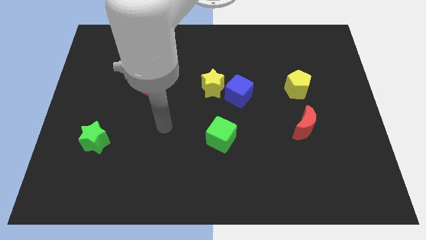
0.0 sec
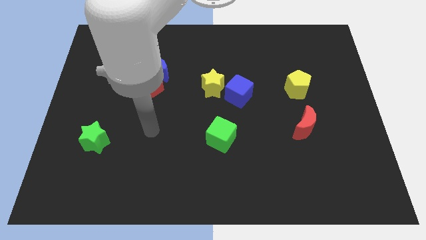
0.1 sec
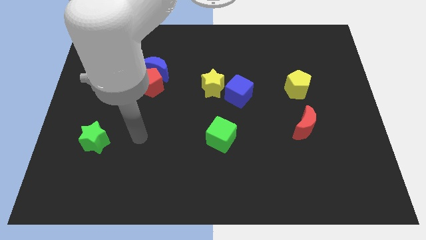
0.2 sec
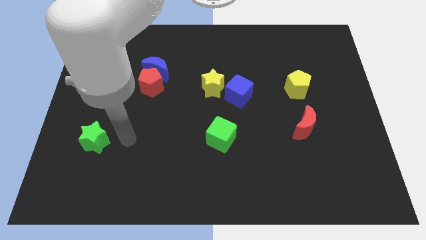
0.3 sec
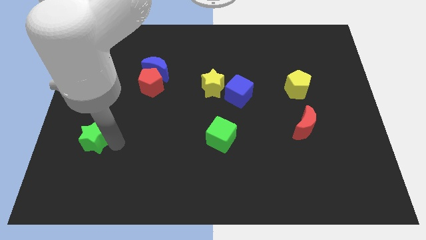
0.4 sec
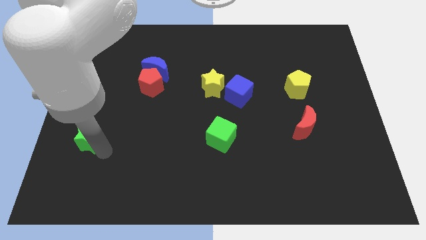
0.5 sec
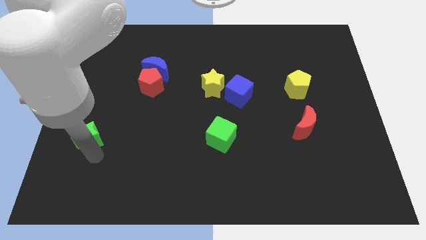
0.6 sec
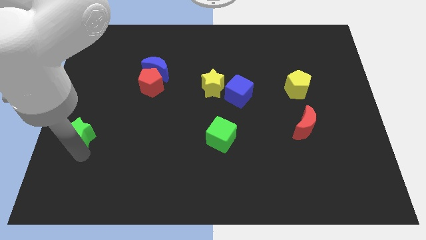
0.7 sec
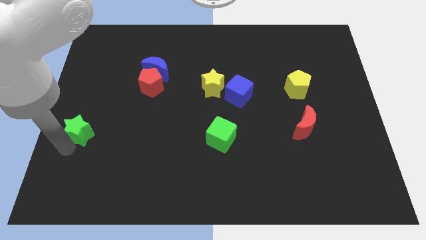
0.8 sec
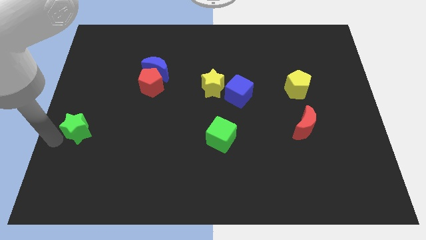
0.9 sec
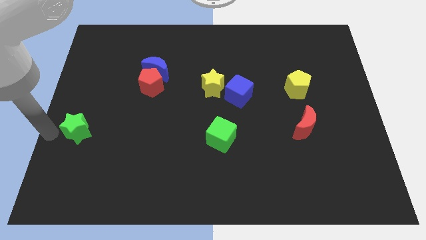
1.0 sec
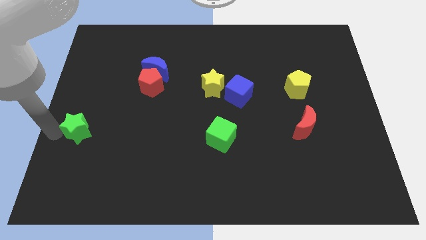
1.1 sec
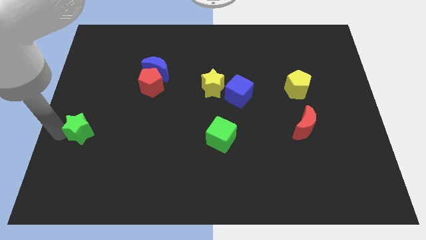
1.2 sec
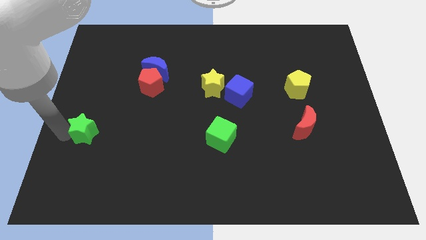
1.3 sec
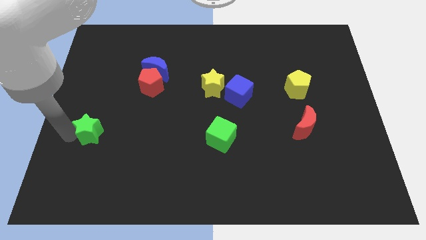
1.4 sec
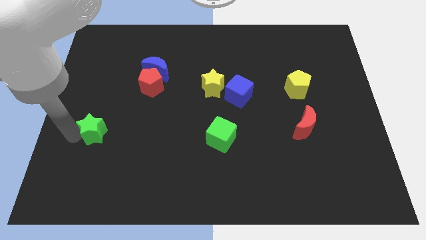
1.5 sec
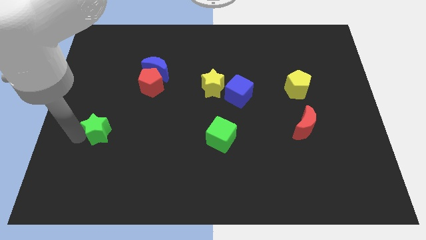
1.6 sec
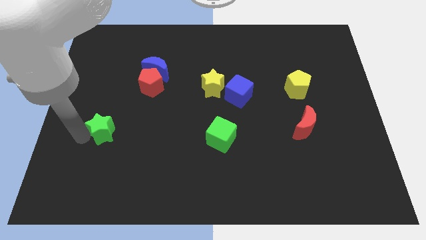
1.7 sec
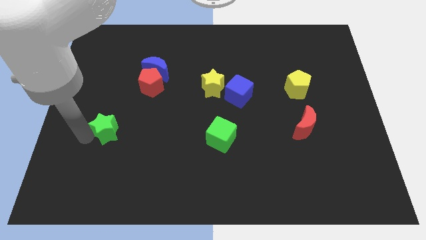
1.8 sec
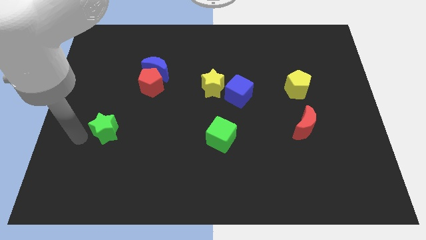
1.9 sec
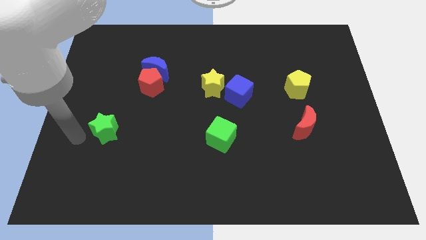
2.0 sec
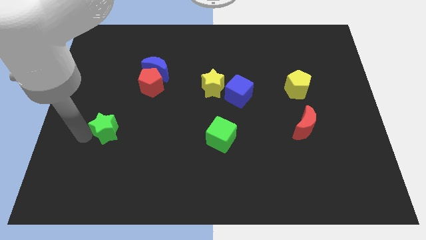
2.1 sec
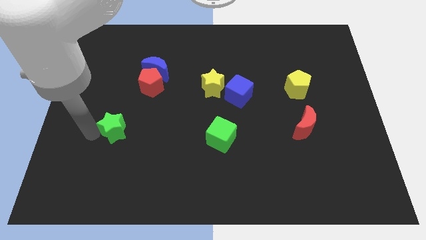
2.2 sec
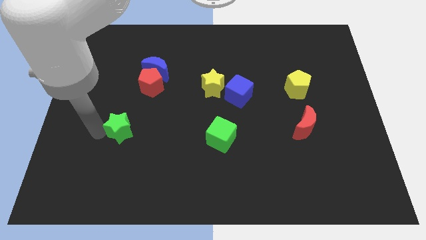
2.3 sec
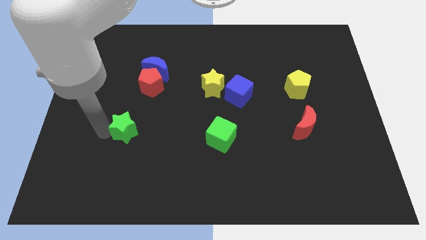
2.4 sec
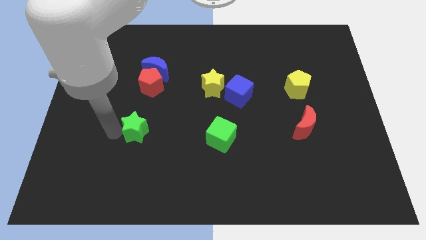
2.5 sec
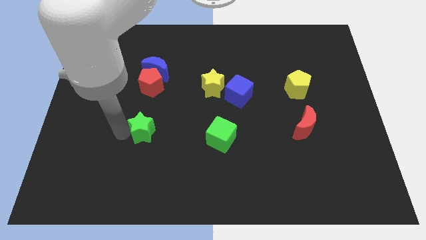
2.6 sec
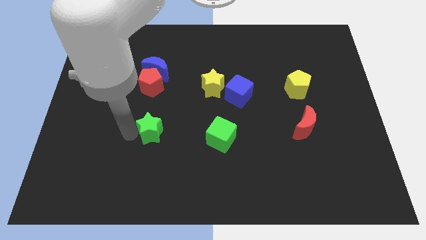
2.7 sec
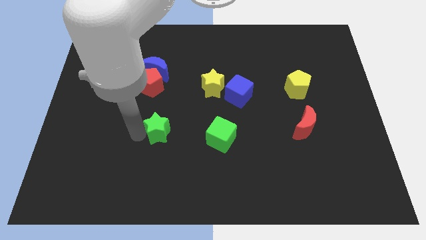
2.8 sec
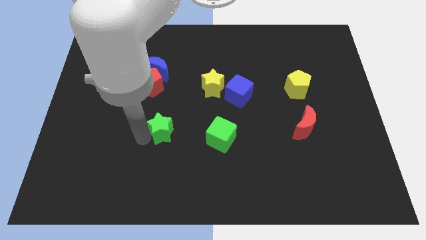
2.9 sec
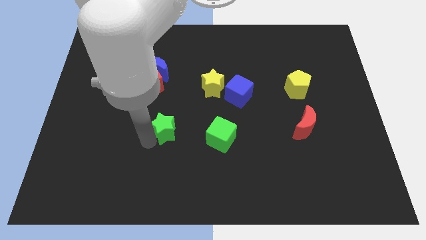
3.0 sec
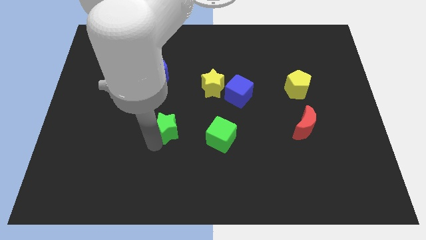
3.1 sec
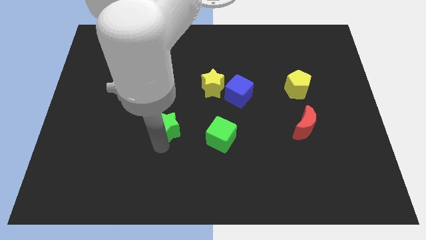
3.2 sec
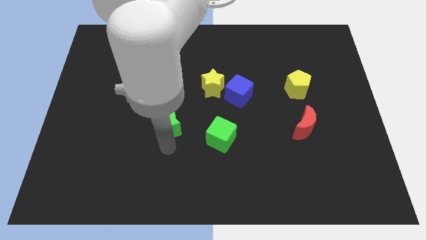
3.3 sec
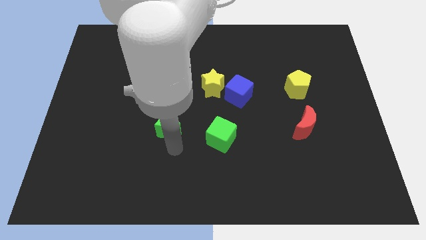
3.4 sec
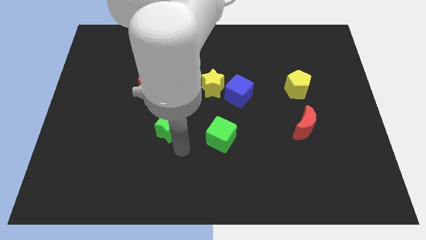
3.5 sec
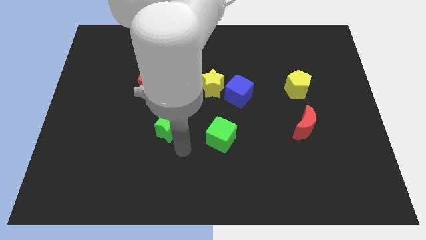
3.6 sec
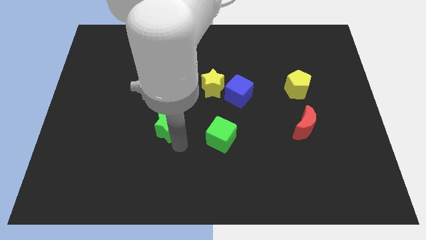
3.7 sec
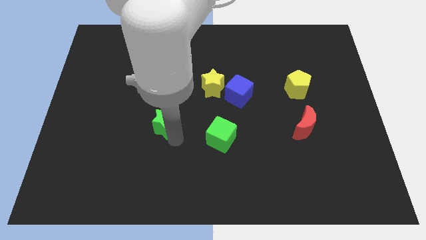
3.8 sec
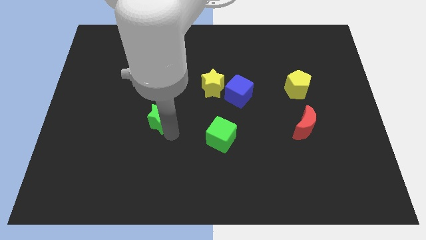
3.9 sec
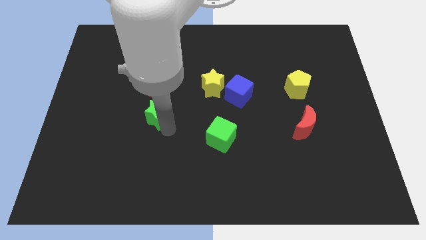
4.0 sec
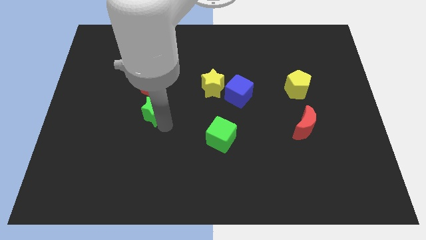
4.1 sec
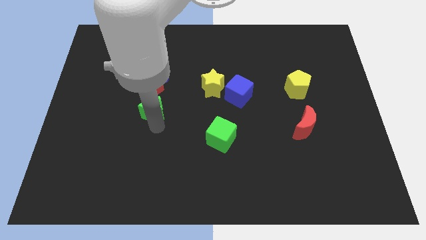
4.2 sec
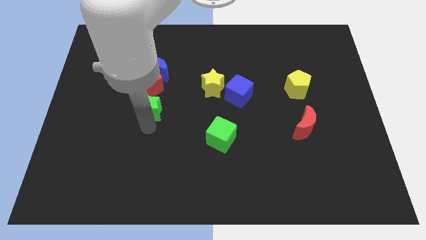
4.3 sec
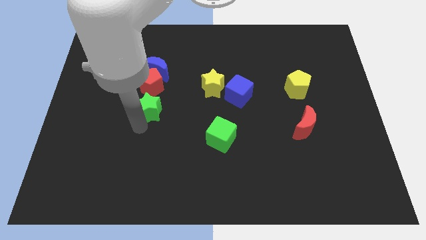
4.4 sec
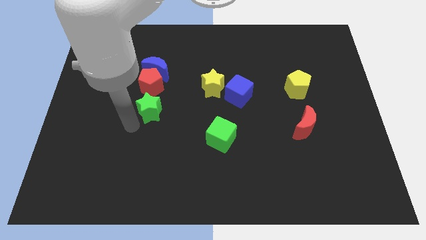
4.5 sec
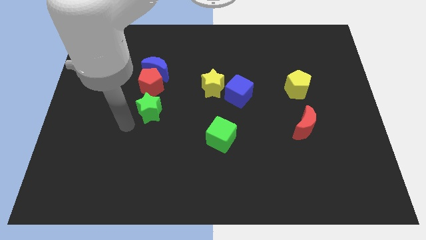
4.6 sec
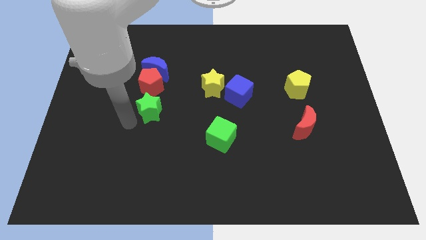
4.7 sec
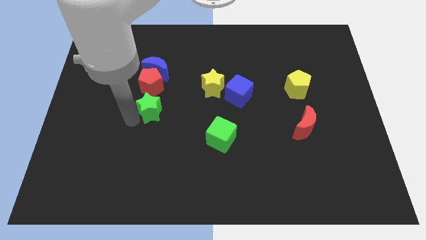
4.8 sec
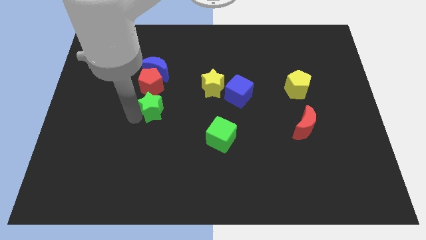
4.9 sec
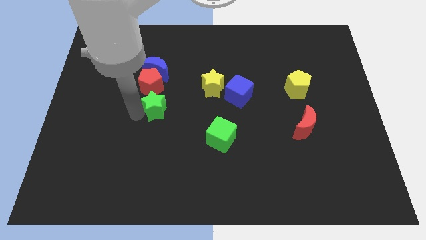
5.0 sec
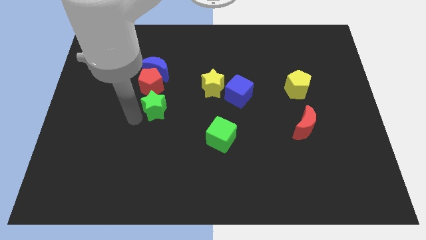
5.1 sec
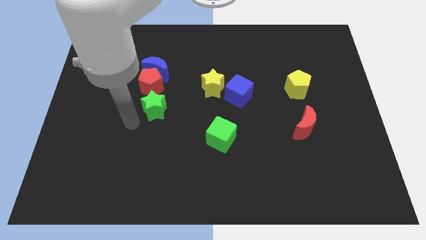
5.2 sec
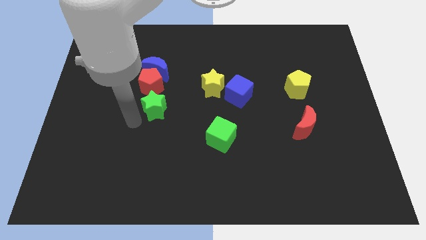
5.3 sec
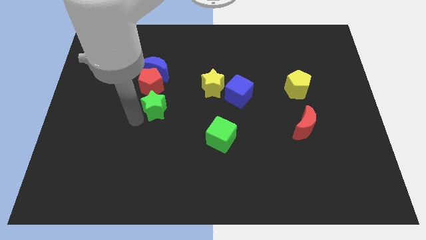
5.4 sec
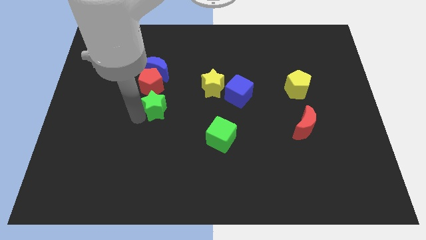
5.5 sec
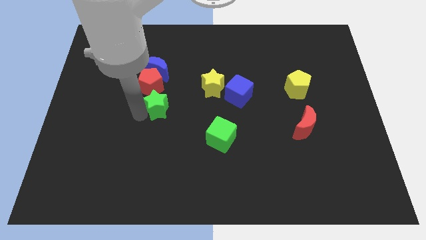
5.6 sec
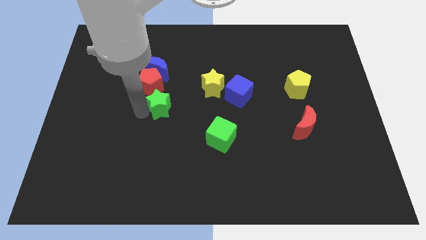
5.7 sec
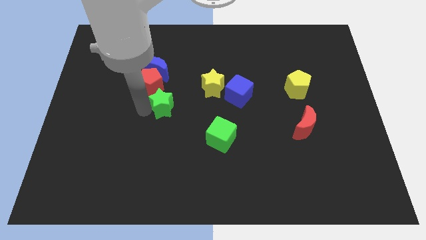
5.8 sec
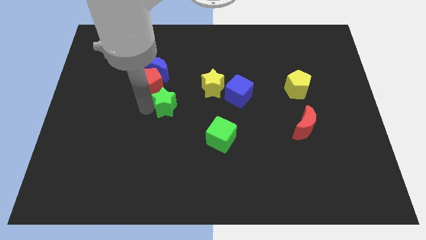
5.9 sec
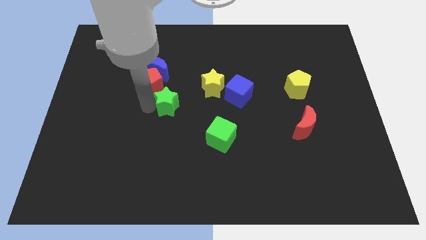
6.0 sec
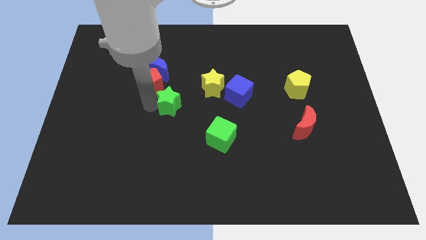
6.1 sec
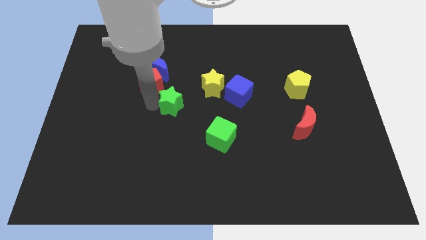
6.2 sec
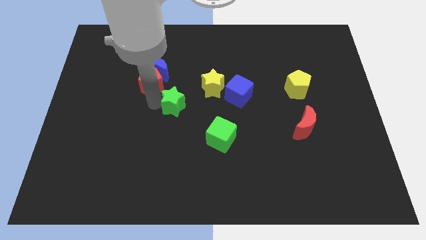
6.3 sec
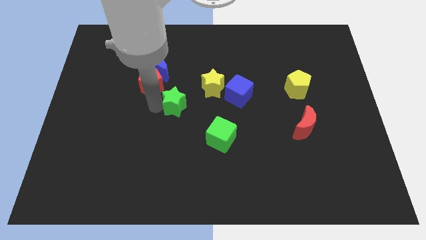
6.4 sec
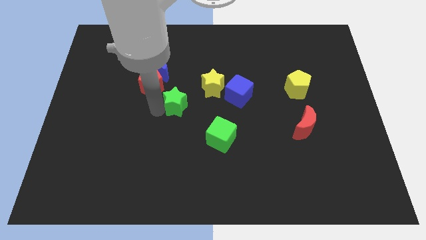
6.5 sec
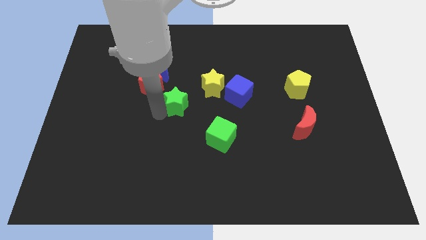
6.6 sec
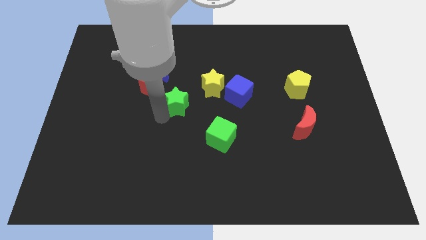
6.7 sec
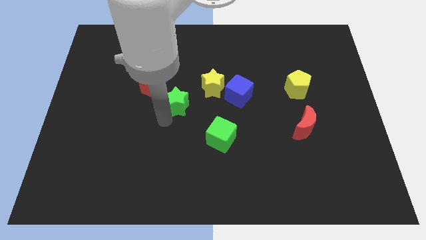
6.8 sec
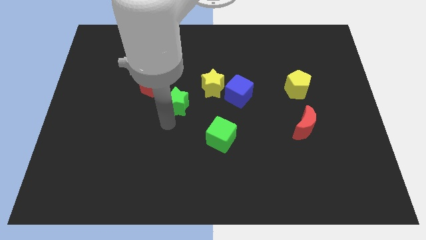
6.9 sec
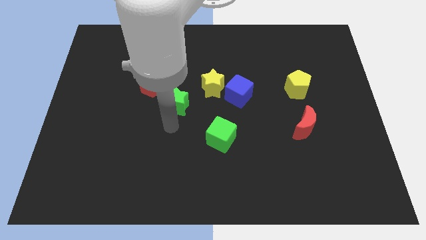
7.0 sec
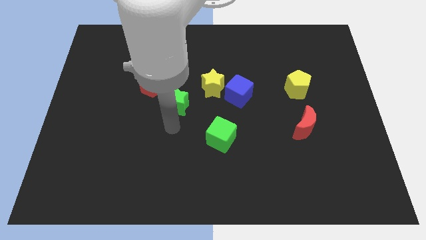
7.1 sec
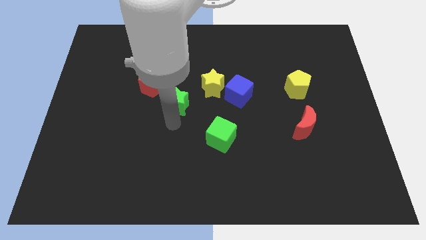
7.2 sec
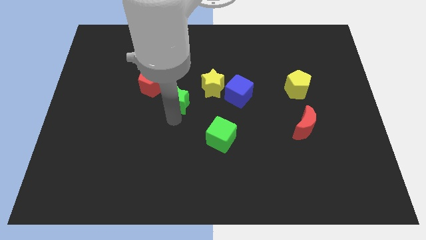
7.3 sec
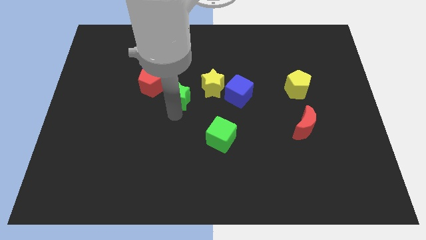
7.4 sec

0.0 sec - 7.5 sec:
slide the green star diagonally upwards and to the right

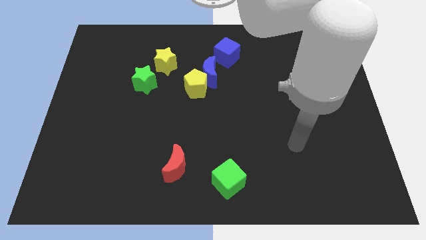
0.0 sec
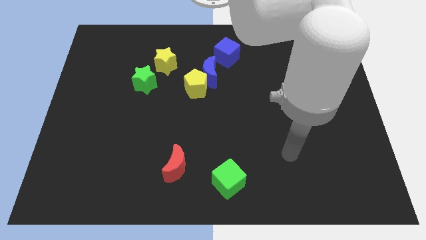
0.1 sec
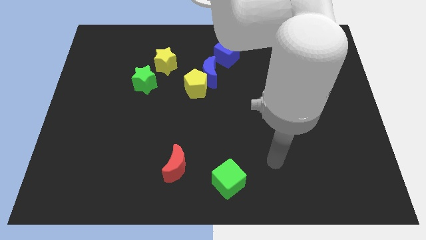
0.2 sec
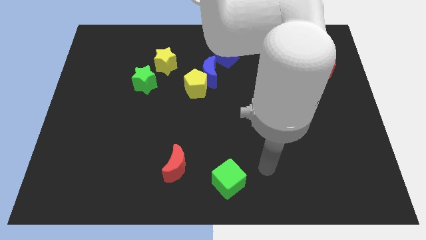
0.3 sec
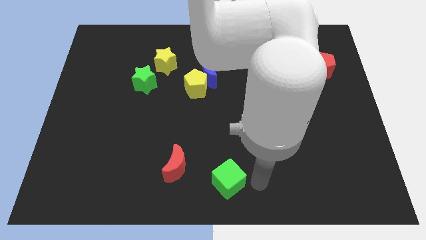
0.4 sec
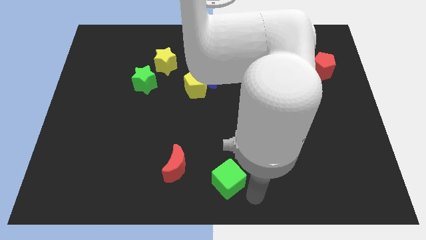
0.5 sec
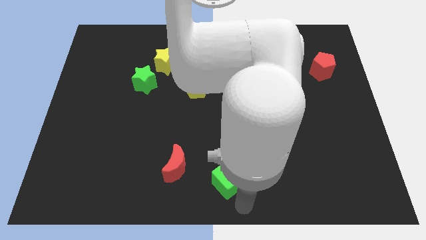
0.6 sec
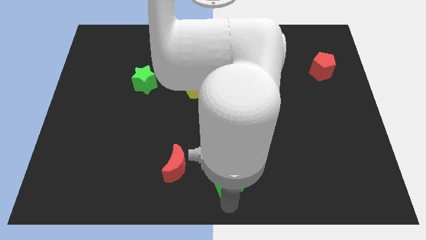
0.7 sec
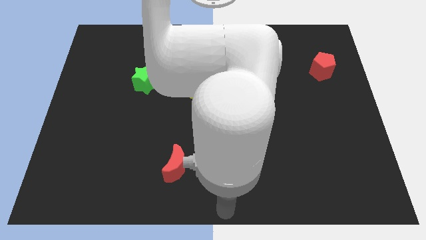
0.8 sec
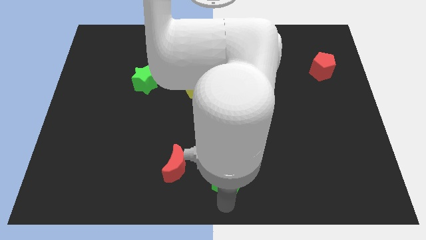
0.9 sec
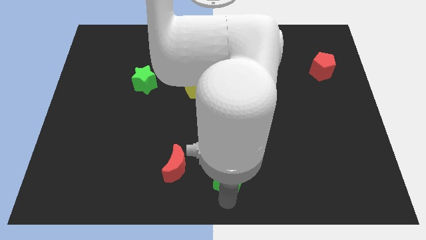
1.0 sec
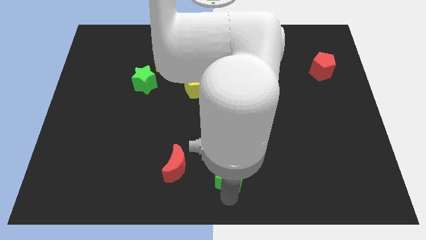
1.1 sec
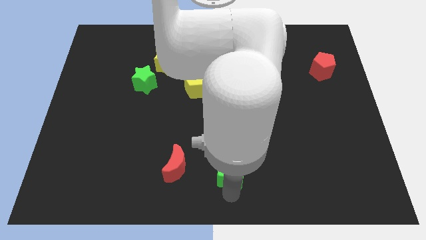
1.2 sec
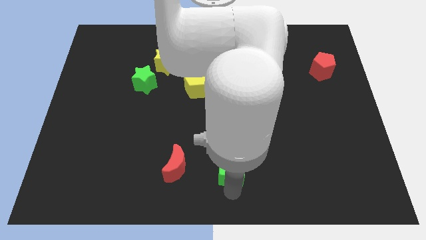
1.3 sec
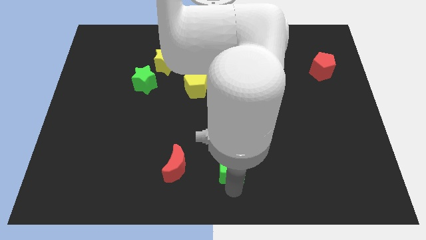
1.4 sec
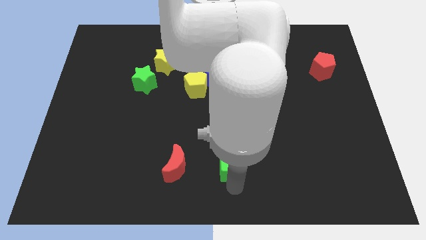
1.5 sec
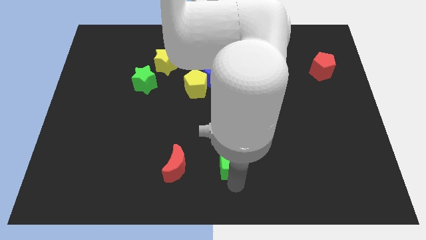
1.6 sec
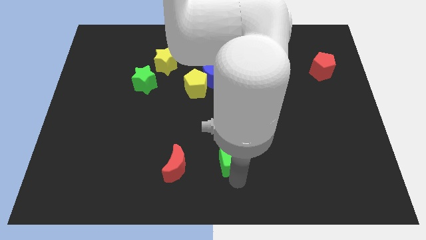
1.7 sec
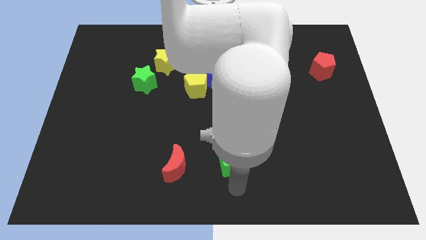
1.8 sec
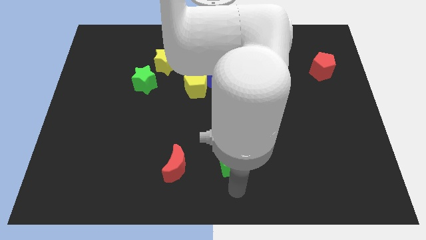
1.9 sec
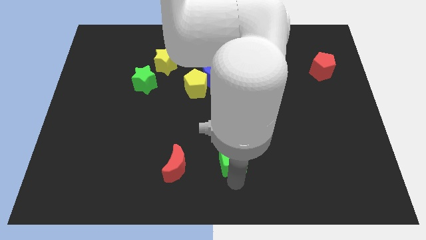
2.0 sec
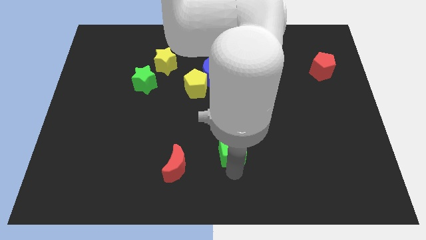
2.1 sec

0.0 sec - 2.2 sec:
move the green cube a bit upwards
